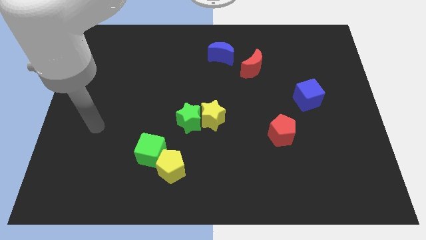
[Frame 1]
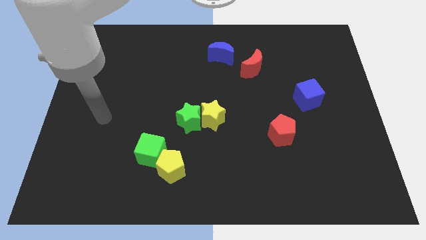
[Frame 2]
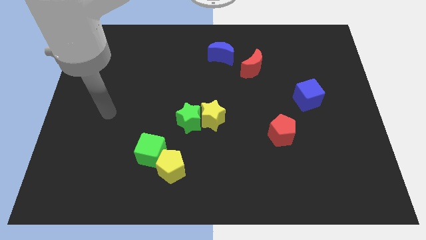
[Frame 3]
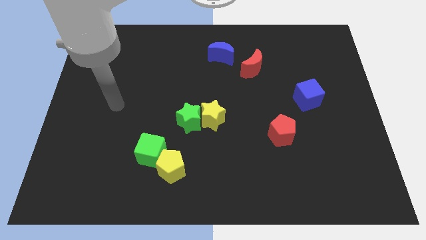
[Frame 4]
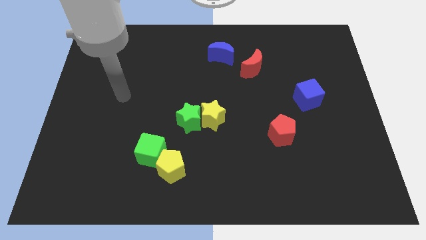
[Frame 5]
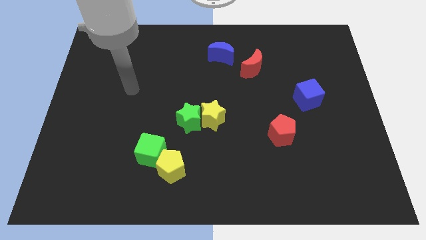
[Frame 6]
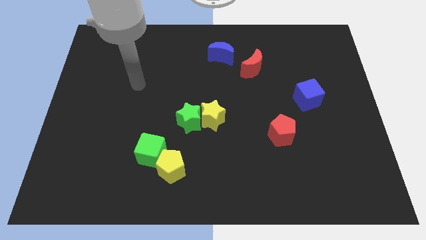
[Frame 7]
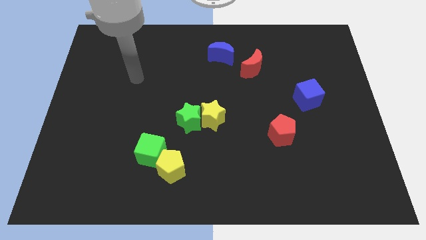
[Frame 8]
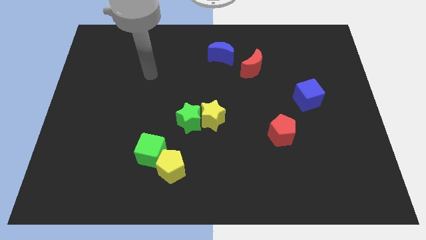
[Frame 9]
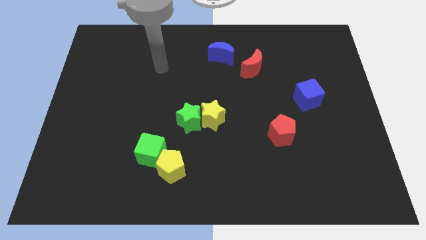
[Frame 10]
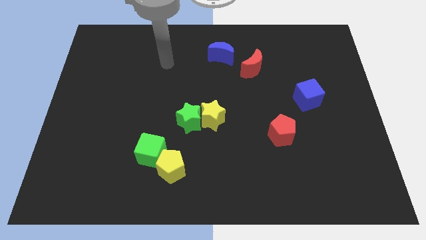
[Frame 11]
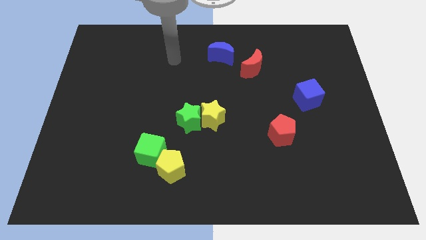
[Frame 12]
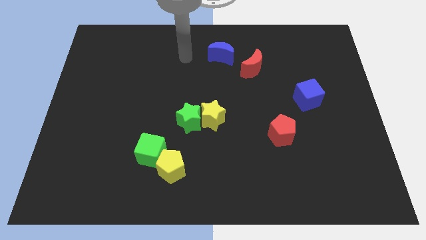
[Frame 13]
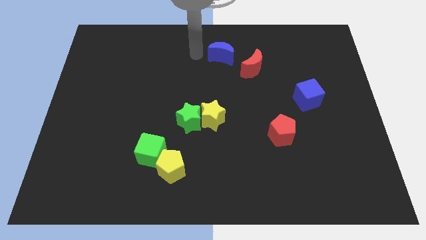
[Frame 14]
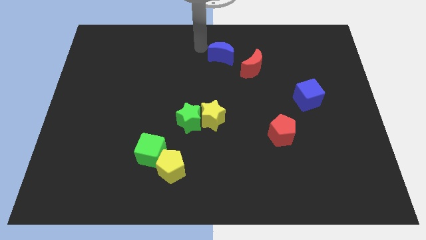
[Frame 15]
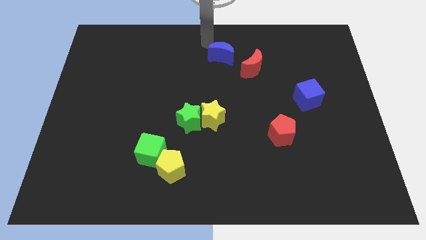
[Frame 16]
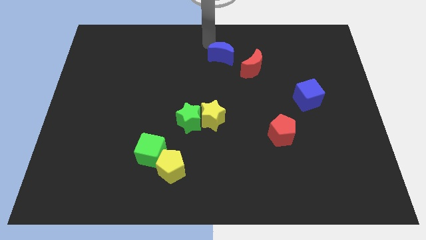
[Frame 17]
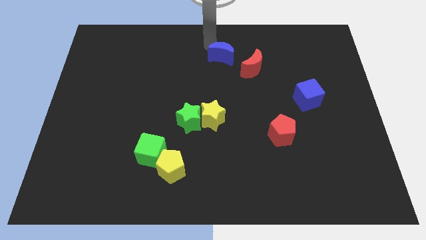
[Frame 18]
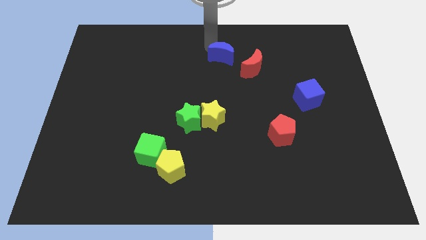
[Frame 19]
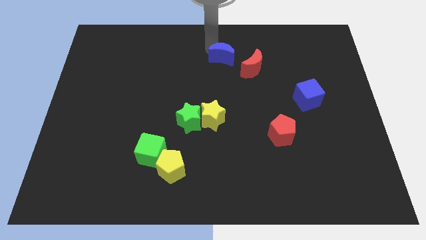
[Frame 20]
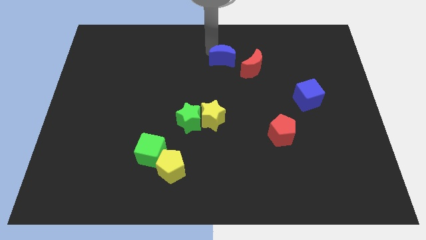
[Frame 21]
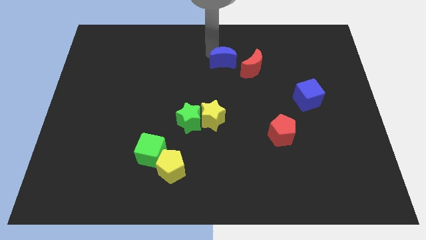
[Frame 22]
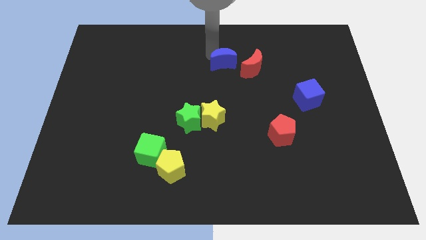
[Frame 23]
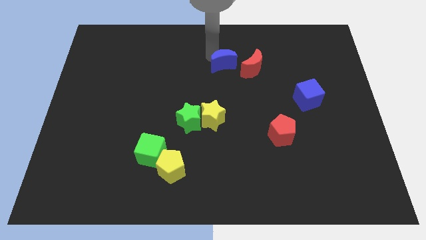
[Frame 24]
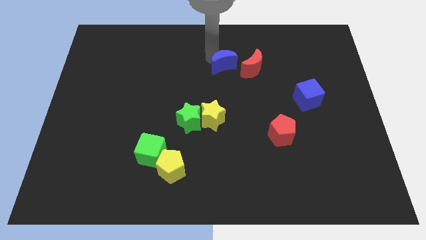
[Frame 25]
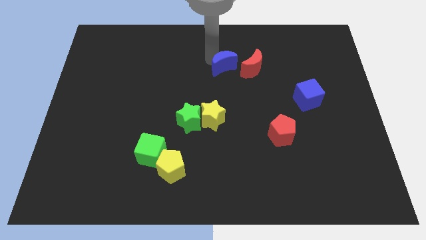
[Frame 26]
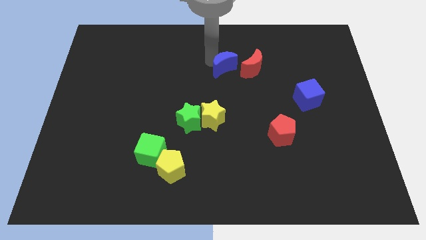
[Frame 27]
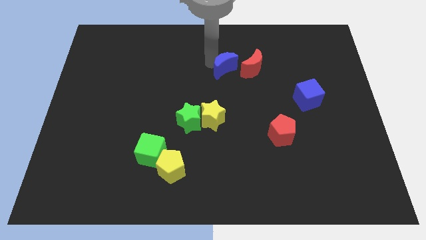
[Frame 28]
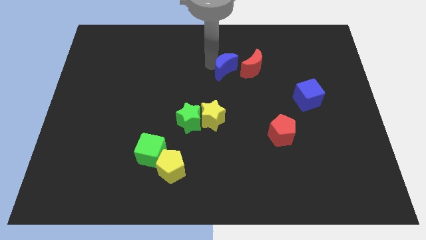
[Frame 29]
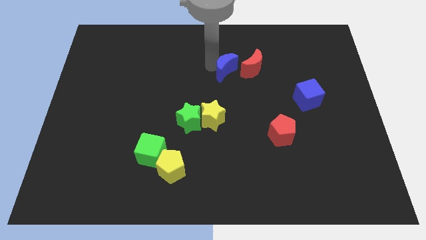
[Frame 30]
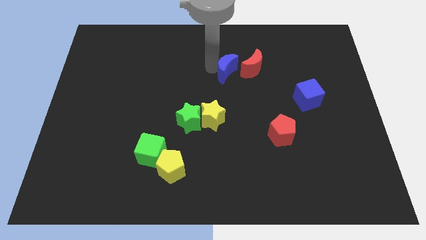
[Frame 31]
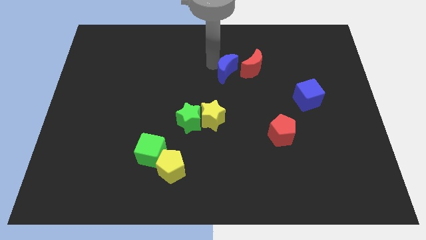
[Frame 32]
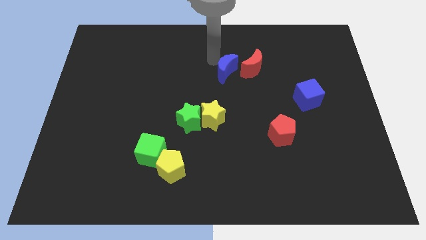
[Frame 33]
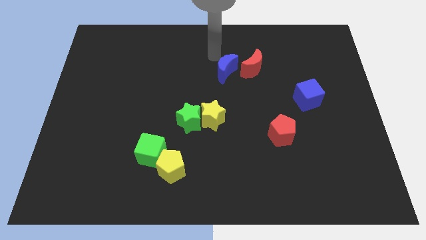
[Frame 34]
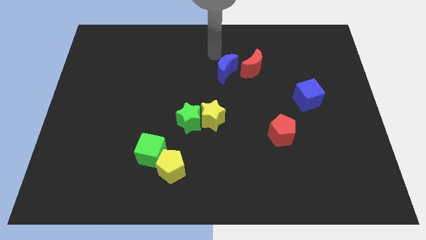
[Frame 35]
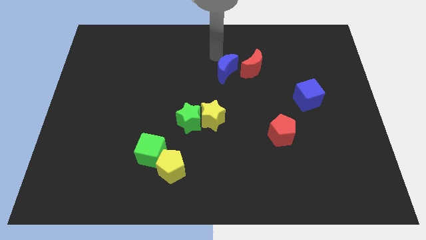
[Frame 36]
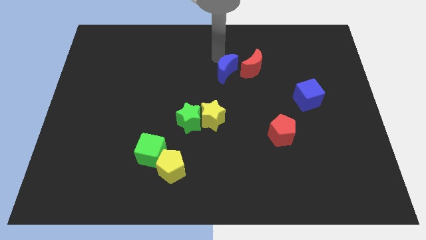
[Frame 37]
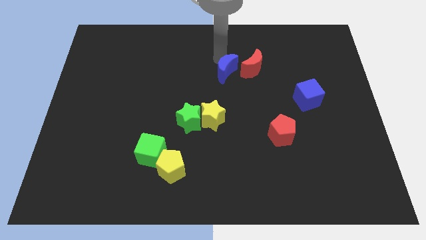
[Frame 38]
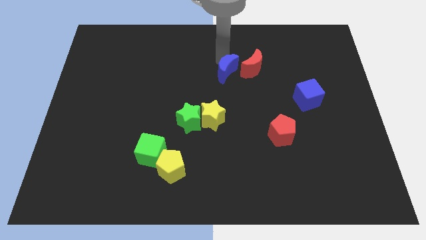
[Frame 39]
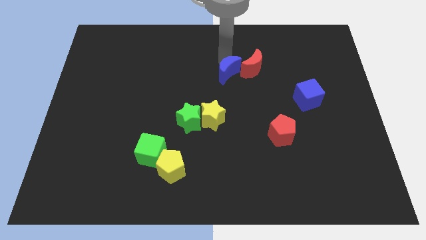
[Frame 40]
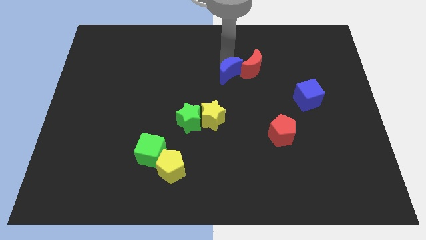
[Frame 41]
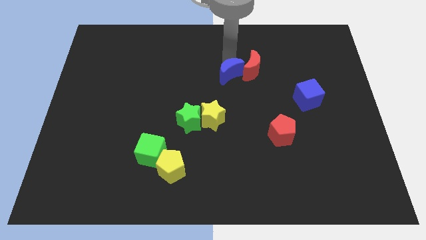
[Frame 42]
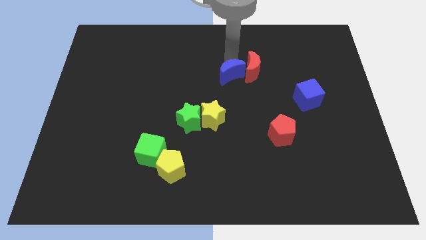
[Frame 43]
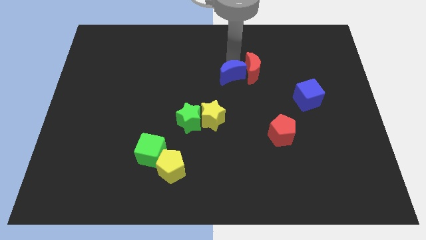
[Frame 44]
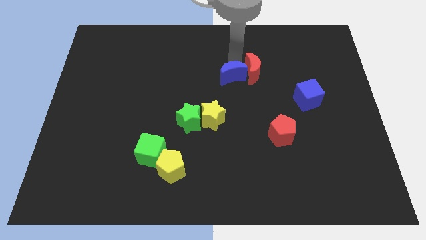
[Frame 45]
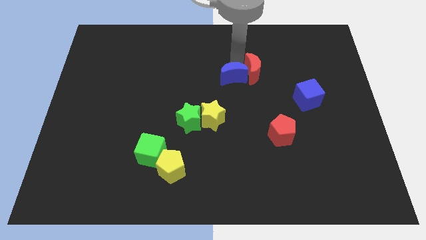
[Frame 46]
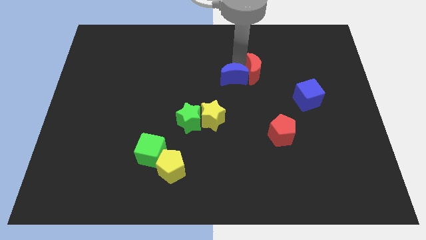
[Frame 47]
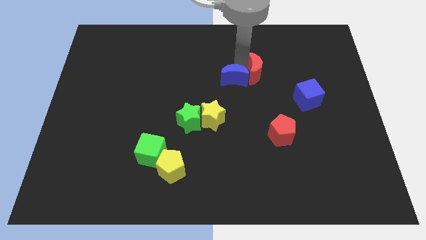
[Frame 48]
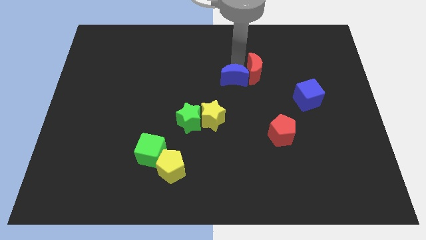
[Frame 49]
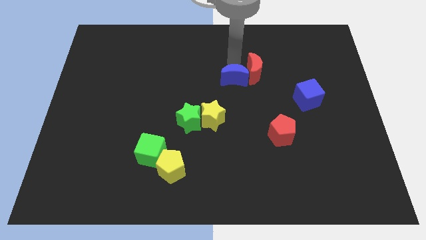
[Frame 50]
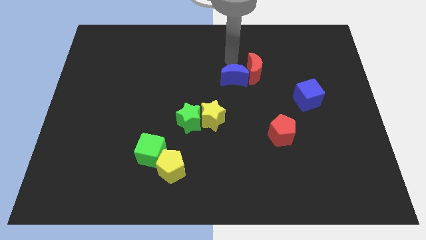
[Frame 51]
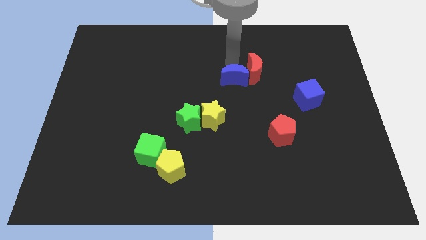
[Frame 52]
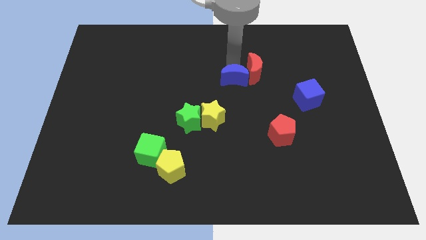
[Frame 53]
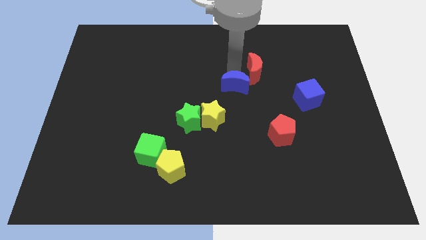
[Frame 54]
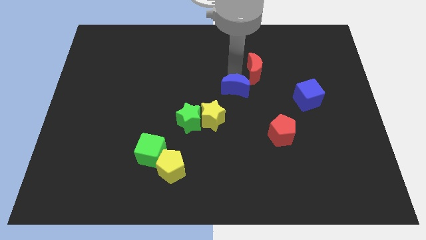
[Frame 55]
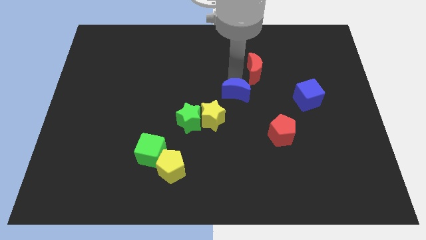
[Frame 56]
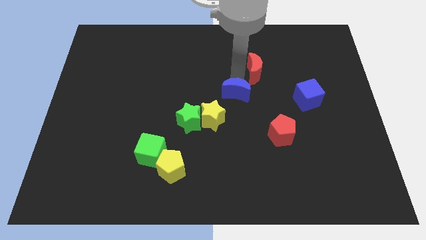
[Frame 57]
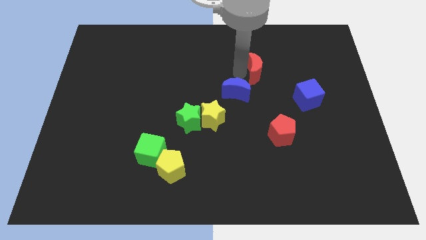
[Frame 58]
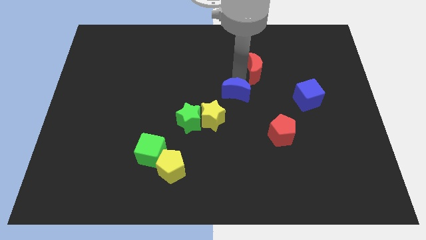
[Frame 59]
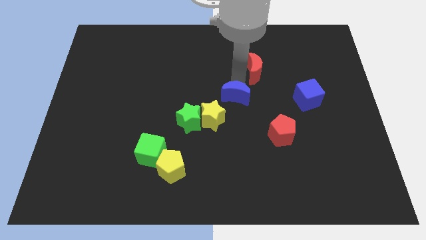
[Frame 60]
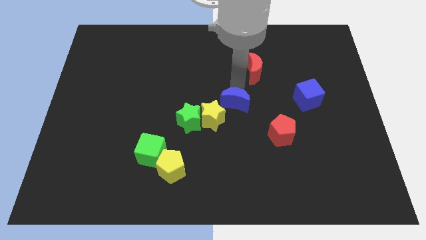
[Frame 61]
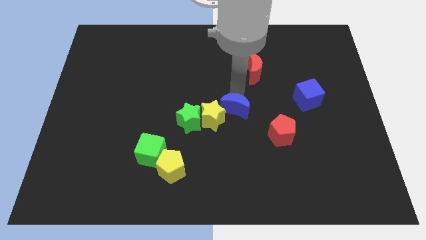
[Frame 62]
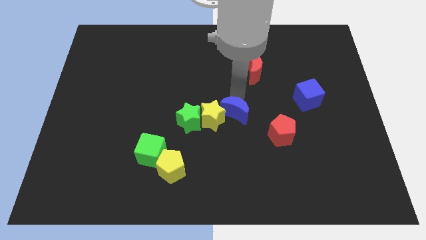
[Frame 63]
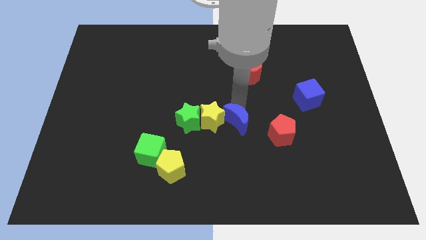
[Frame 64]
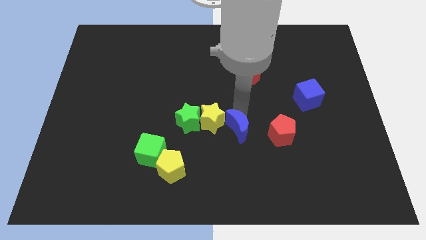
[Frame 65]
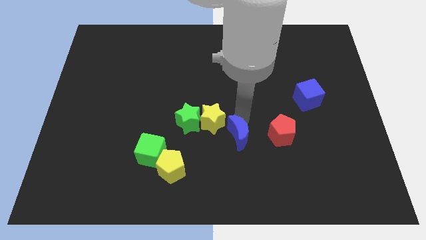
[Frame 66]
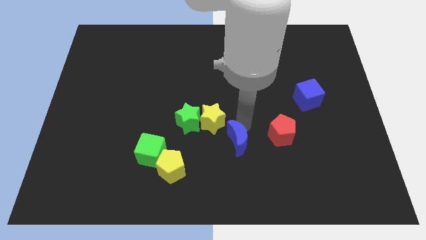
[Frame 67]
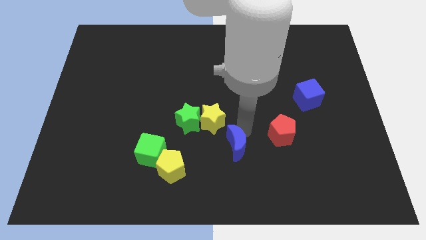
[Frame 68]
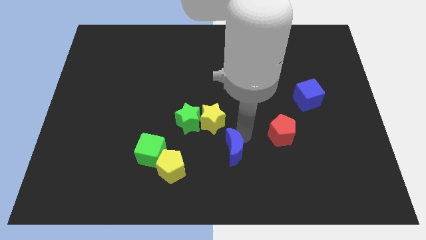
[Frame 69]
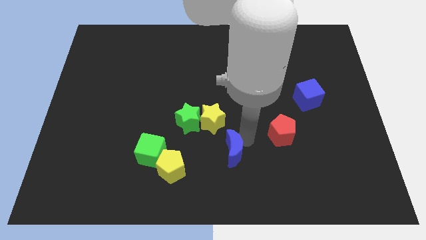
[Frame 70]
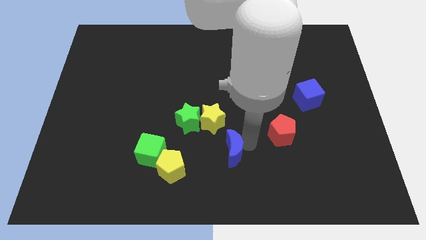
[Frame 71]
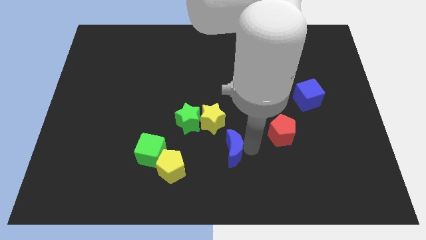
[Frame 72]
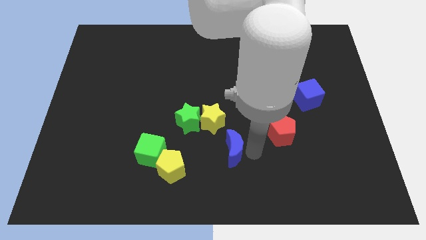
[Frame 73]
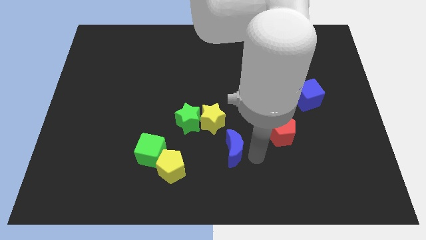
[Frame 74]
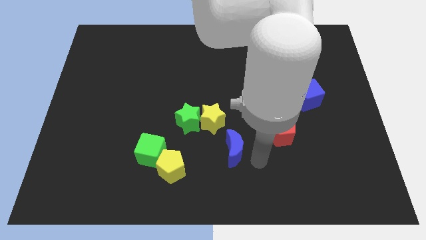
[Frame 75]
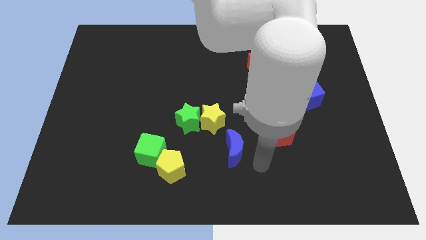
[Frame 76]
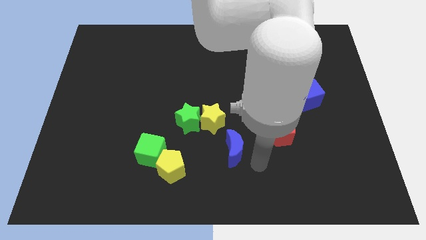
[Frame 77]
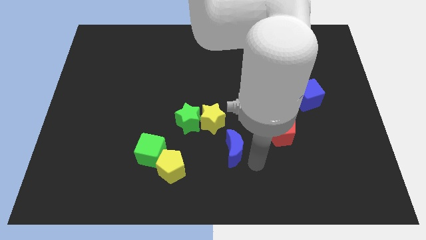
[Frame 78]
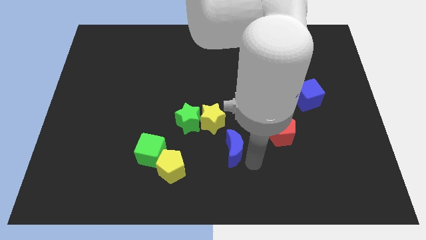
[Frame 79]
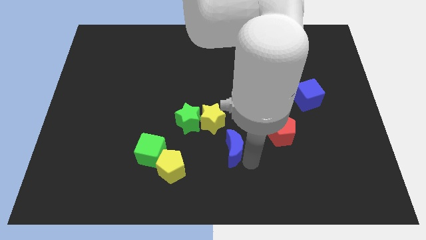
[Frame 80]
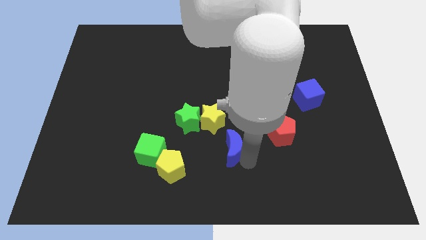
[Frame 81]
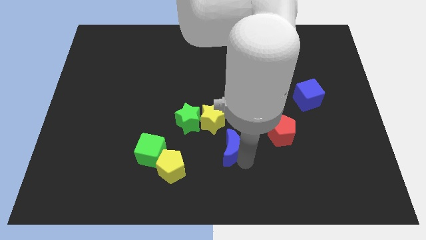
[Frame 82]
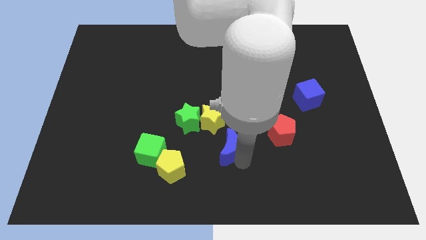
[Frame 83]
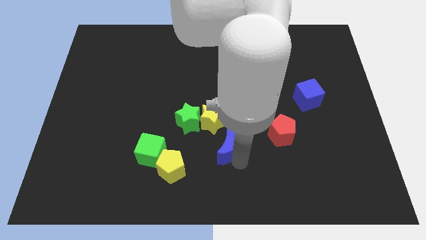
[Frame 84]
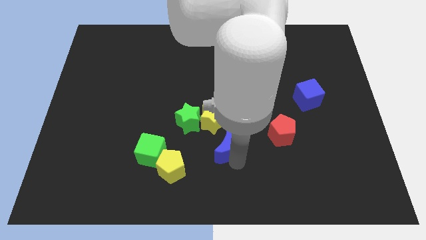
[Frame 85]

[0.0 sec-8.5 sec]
move the blue moon to the right of the green cube
